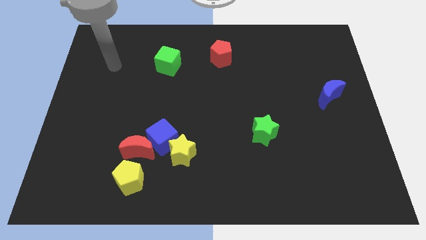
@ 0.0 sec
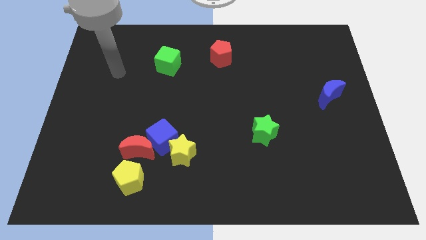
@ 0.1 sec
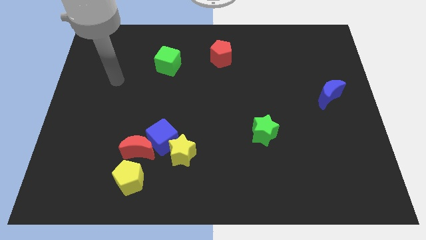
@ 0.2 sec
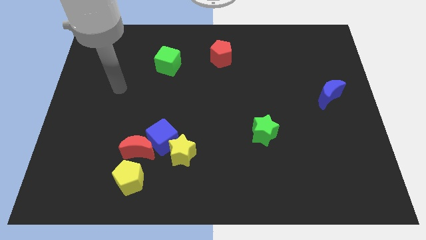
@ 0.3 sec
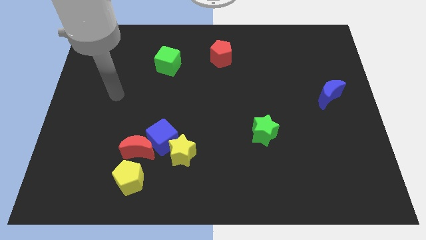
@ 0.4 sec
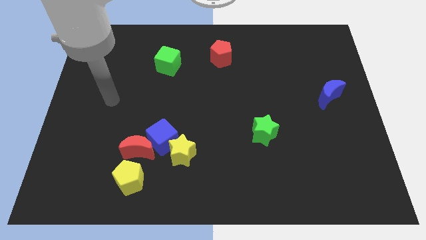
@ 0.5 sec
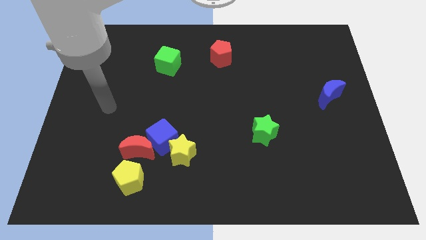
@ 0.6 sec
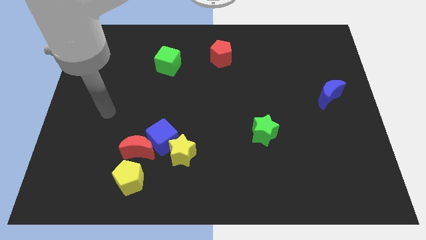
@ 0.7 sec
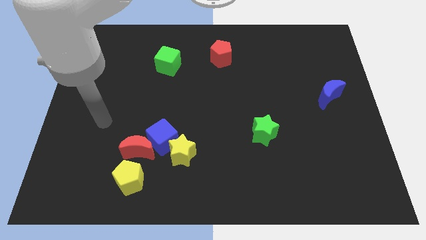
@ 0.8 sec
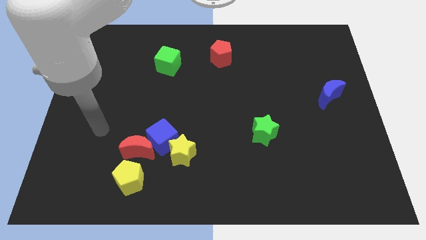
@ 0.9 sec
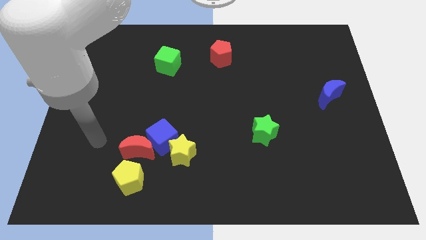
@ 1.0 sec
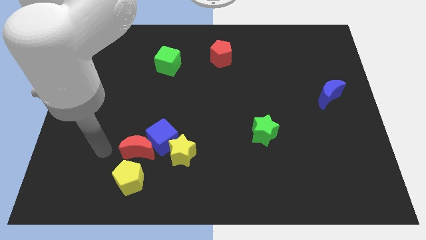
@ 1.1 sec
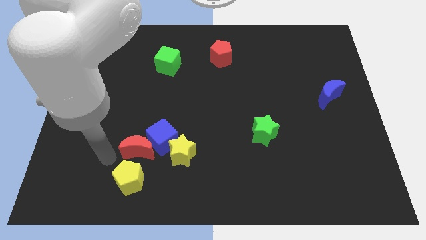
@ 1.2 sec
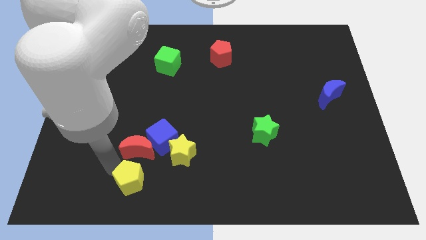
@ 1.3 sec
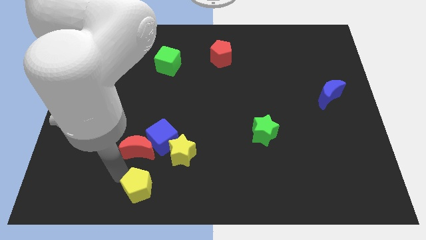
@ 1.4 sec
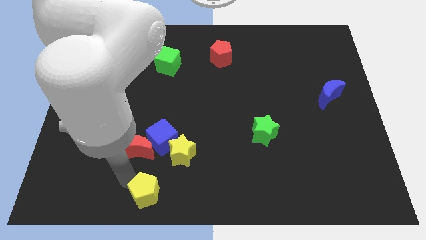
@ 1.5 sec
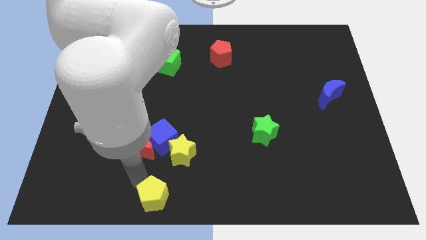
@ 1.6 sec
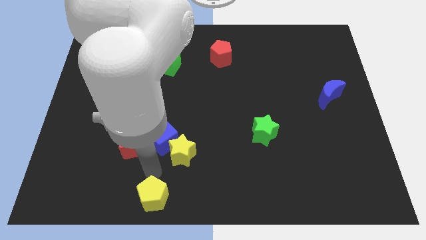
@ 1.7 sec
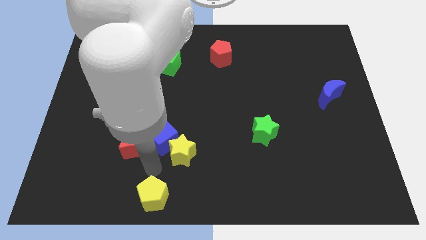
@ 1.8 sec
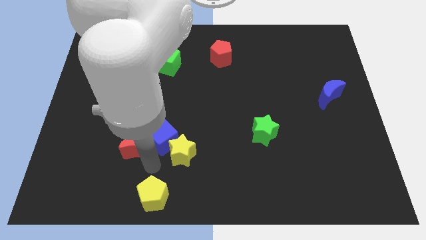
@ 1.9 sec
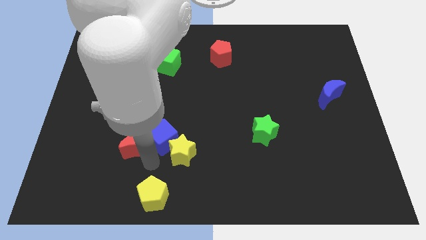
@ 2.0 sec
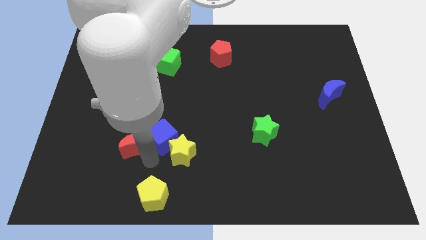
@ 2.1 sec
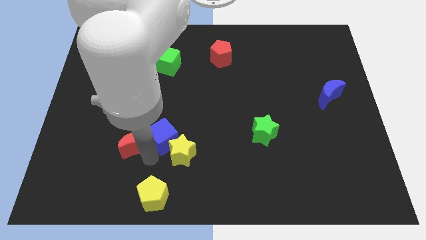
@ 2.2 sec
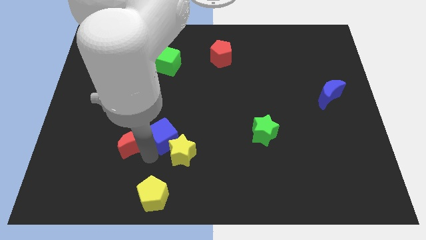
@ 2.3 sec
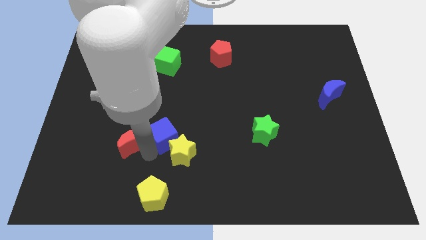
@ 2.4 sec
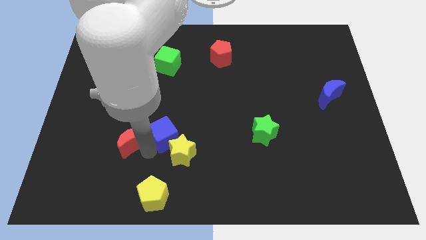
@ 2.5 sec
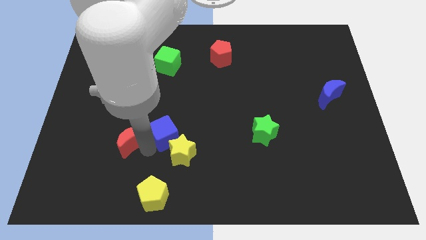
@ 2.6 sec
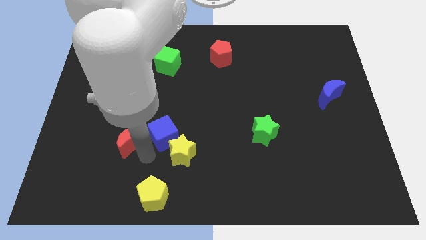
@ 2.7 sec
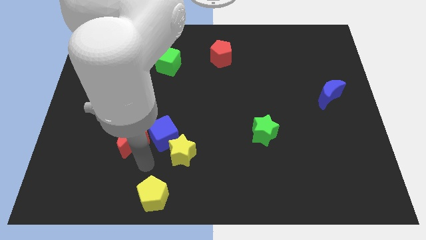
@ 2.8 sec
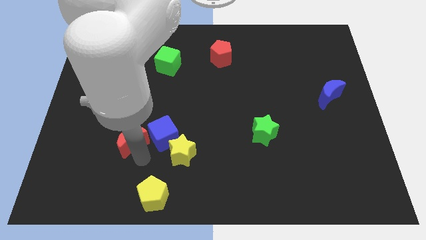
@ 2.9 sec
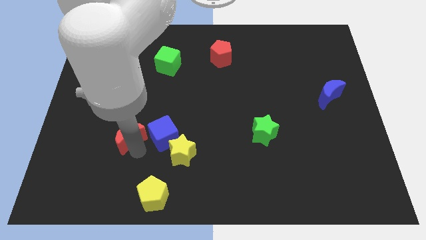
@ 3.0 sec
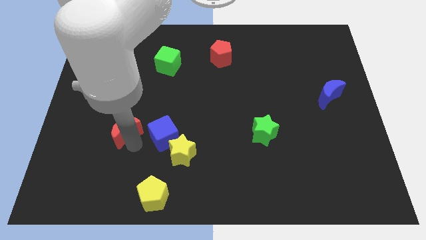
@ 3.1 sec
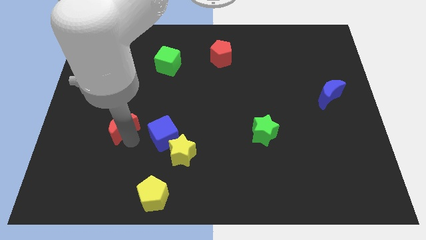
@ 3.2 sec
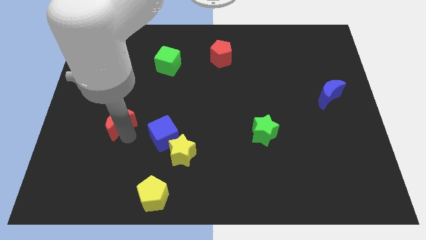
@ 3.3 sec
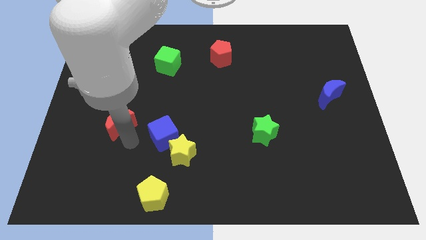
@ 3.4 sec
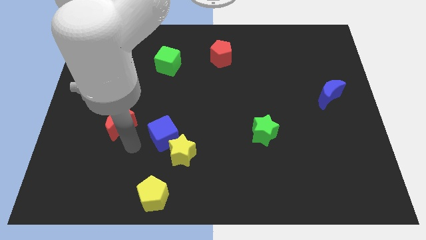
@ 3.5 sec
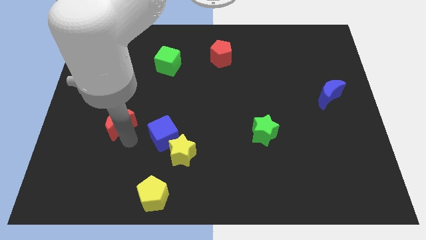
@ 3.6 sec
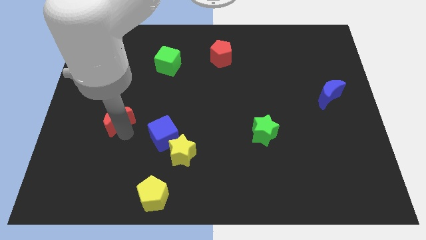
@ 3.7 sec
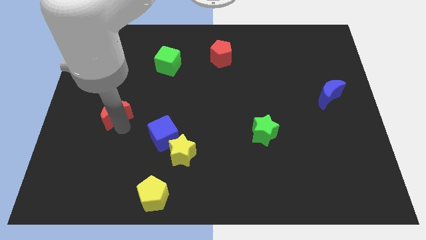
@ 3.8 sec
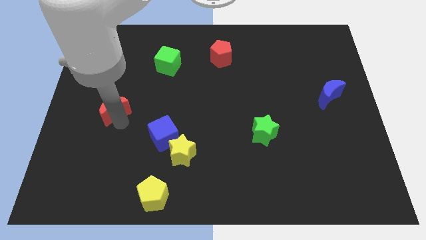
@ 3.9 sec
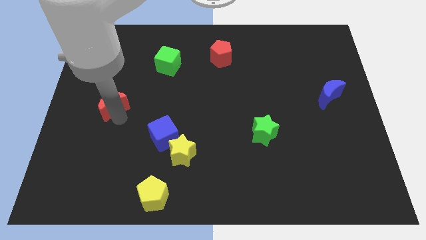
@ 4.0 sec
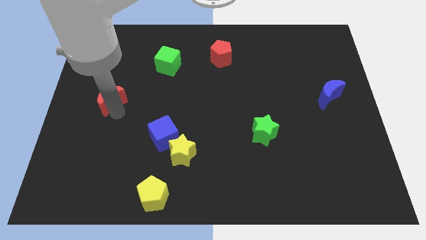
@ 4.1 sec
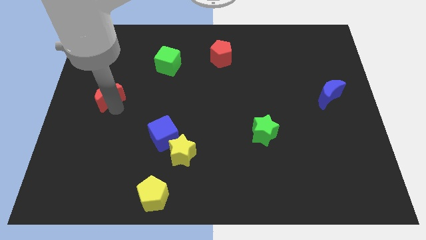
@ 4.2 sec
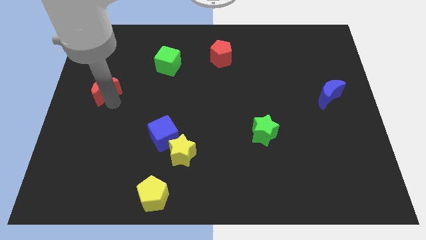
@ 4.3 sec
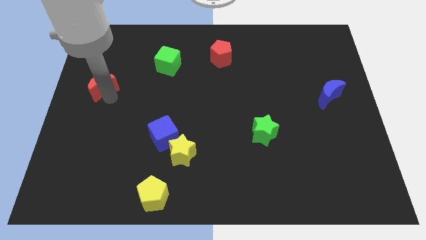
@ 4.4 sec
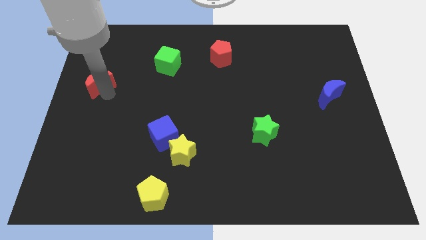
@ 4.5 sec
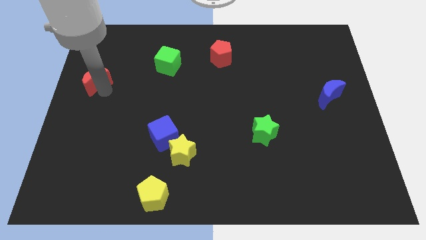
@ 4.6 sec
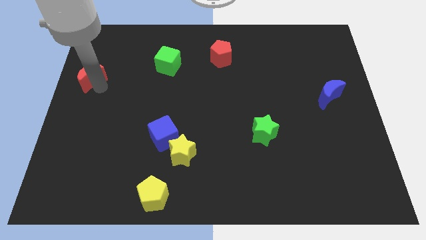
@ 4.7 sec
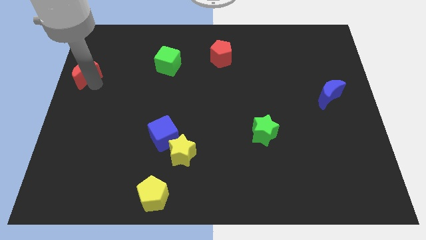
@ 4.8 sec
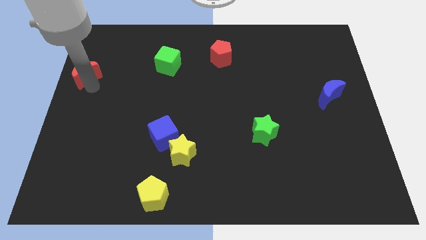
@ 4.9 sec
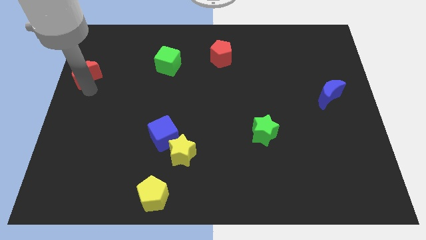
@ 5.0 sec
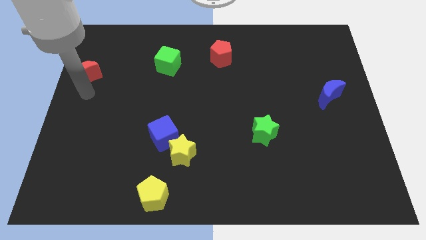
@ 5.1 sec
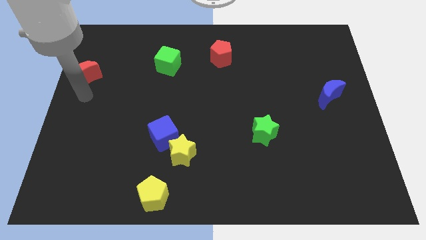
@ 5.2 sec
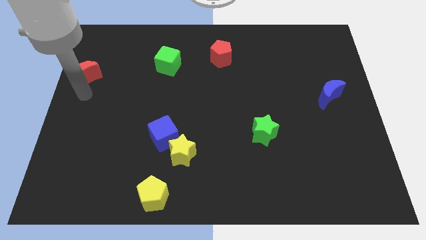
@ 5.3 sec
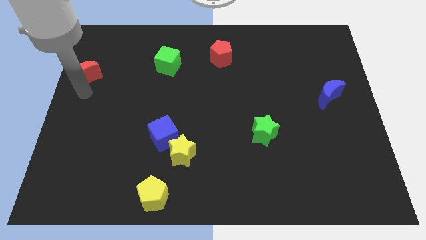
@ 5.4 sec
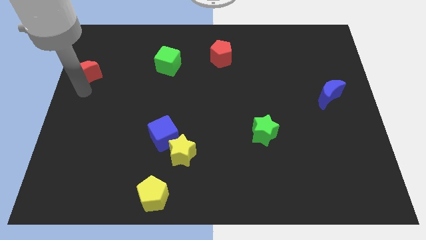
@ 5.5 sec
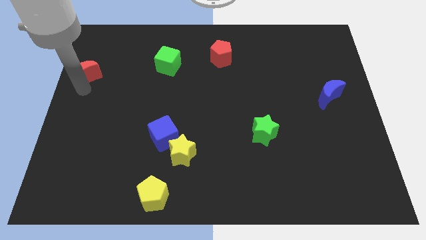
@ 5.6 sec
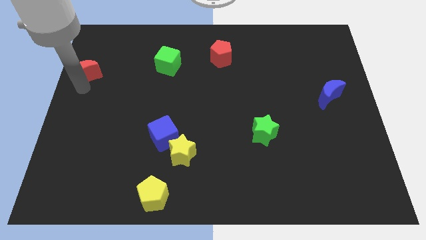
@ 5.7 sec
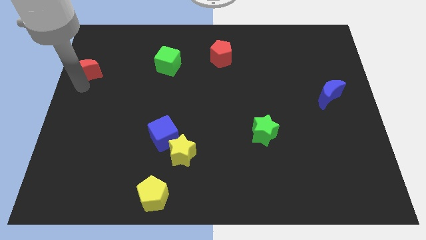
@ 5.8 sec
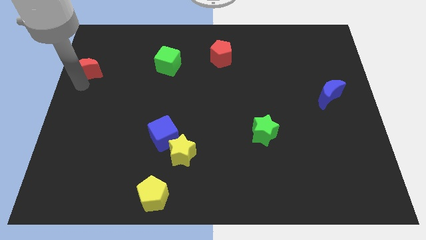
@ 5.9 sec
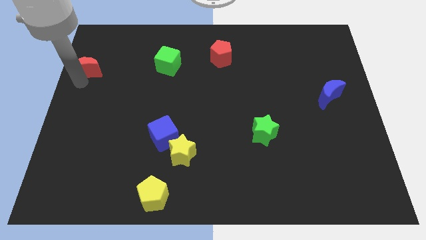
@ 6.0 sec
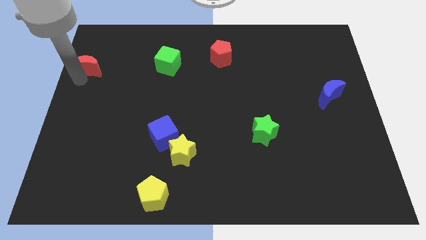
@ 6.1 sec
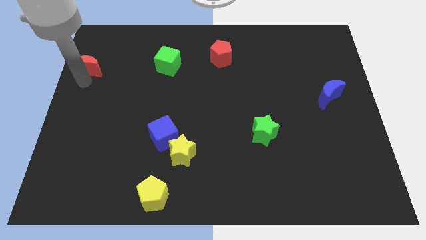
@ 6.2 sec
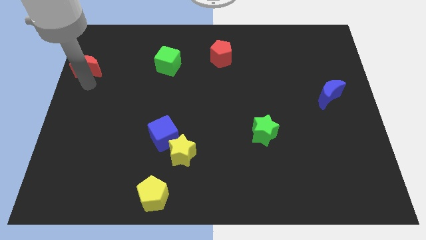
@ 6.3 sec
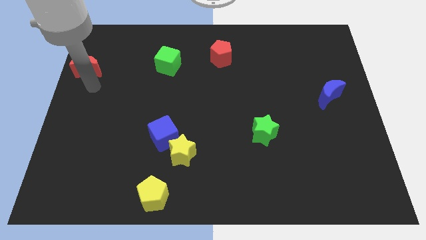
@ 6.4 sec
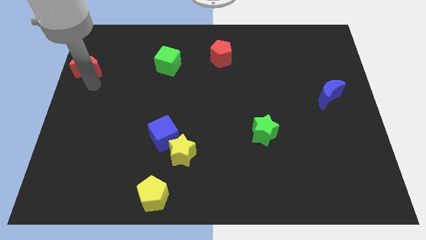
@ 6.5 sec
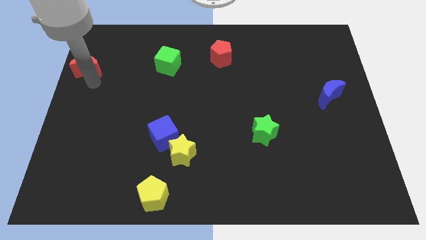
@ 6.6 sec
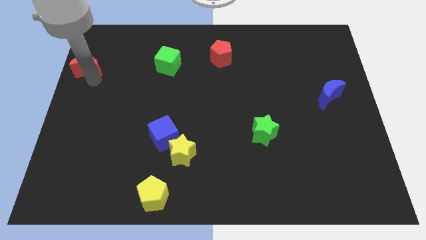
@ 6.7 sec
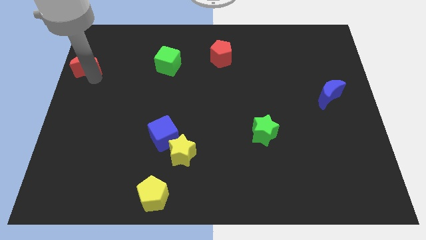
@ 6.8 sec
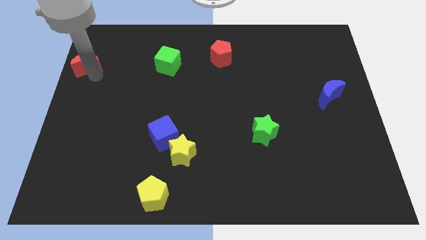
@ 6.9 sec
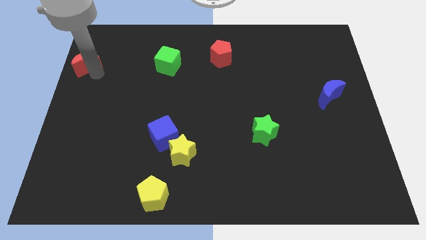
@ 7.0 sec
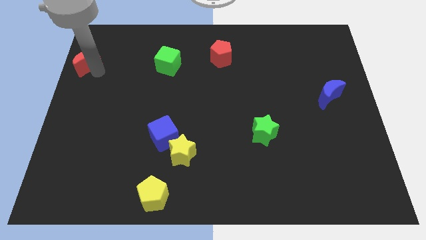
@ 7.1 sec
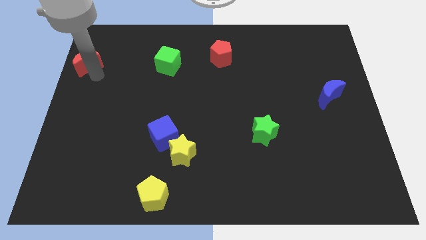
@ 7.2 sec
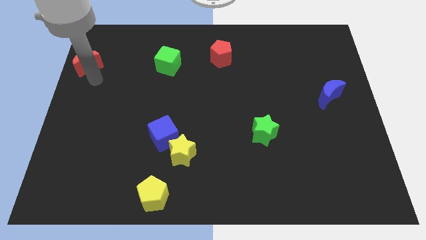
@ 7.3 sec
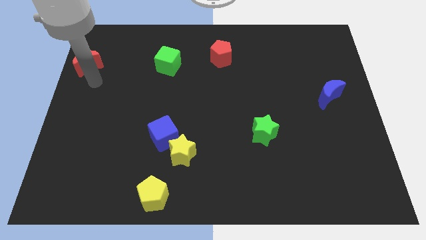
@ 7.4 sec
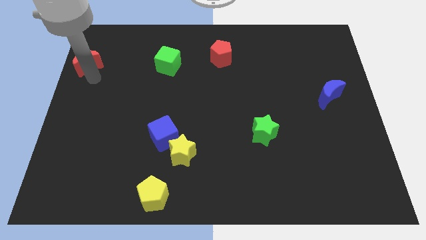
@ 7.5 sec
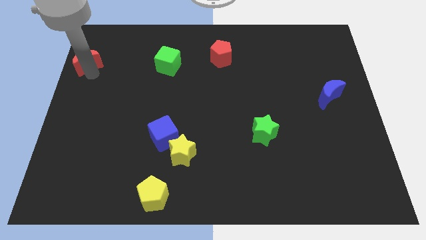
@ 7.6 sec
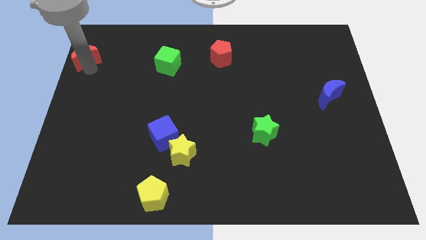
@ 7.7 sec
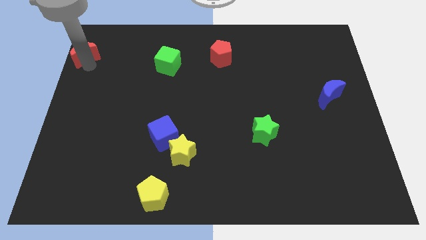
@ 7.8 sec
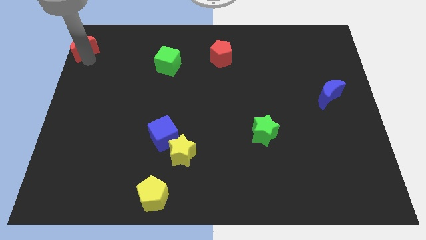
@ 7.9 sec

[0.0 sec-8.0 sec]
put the red moon to the top left of the board
